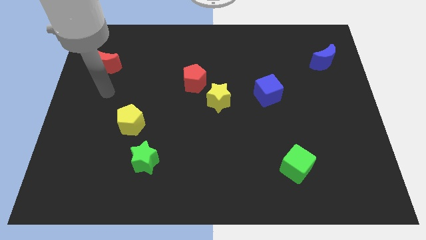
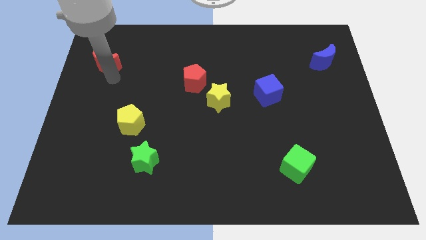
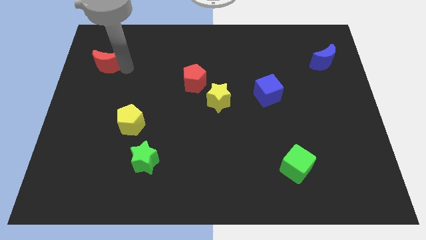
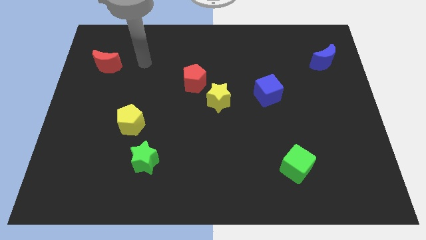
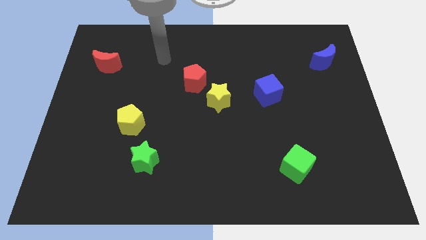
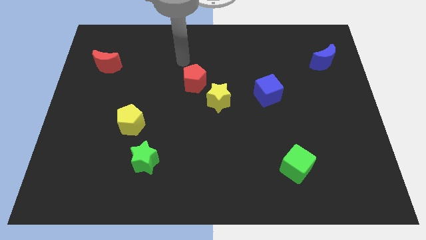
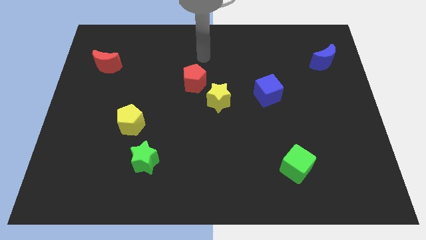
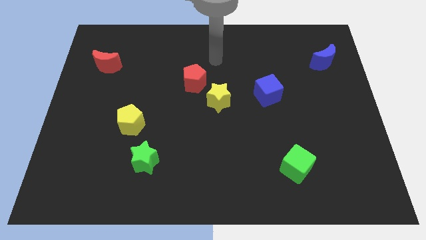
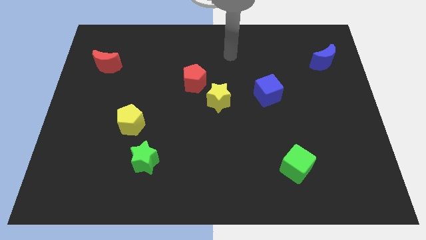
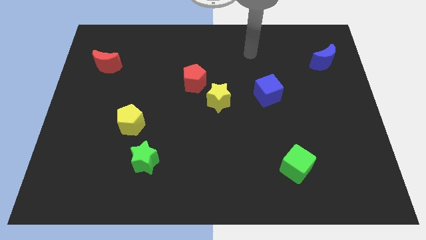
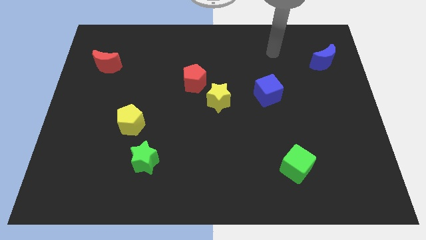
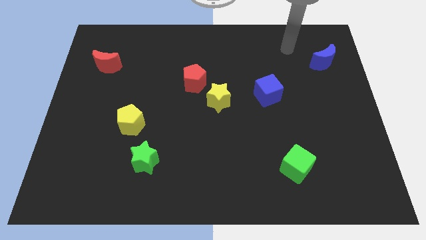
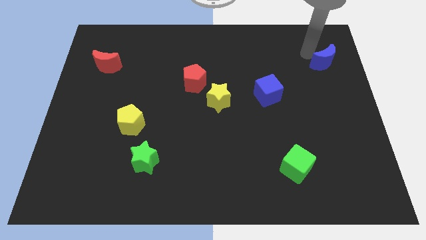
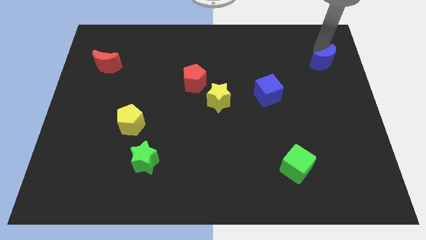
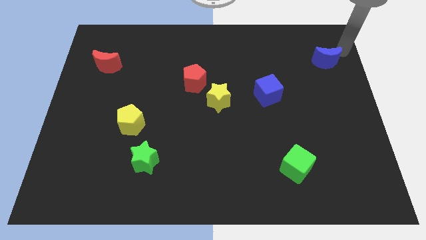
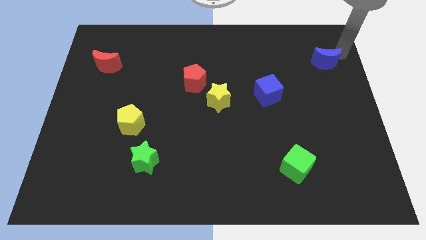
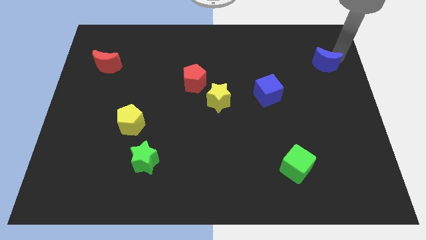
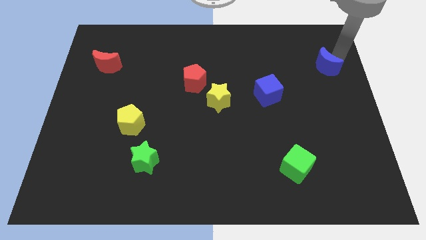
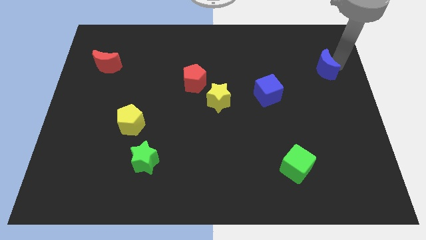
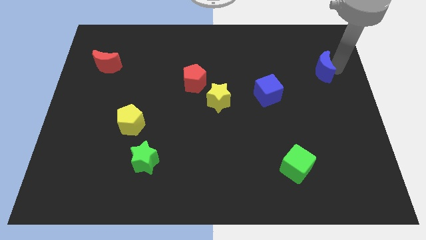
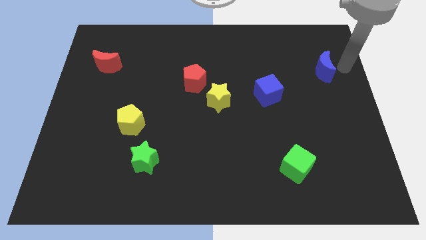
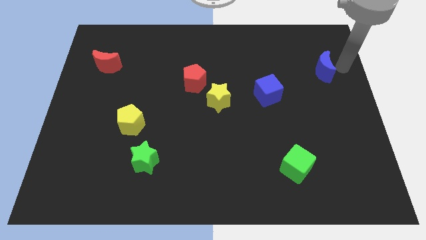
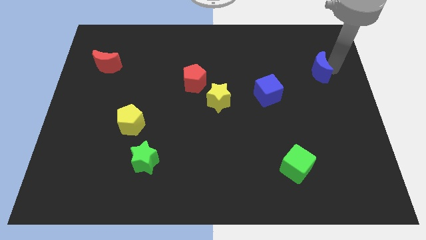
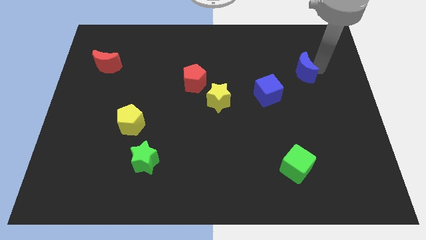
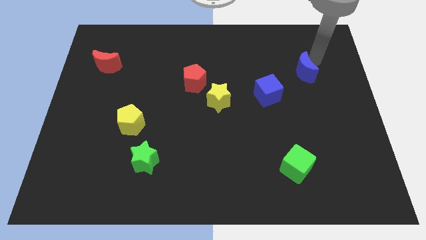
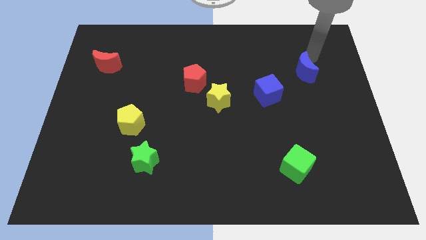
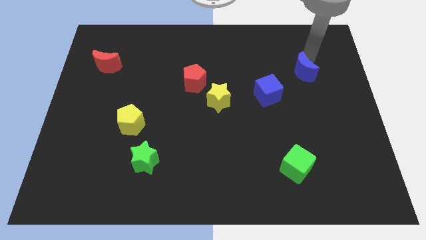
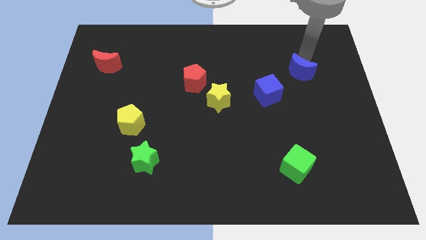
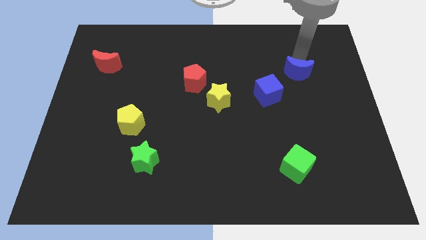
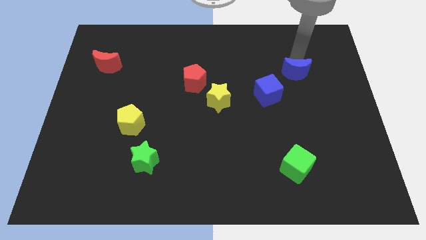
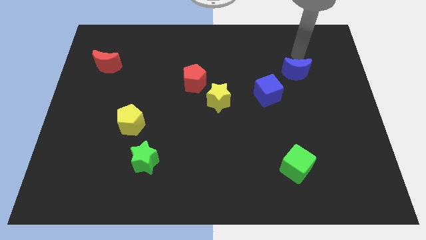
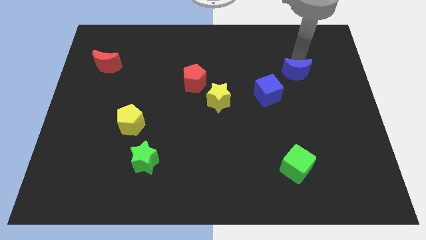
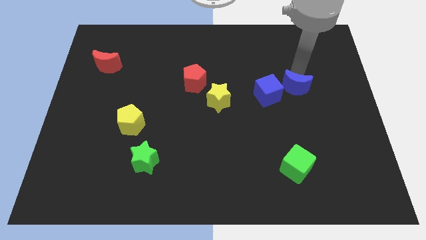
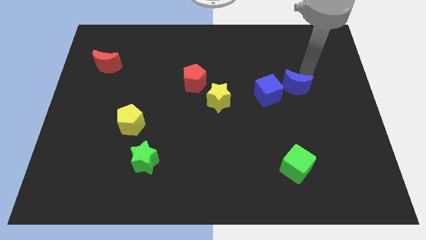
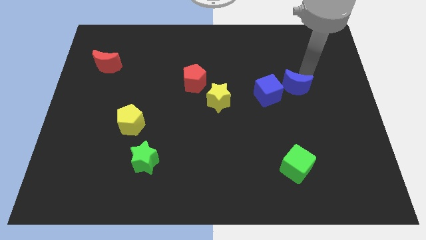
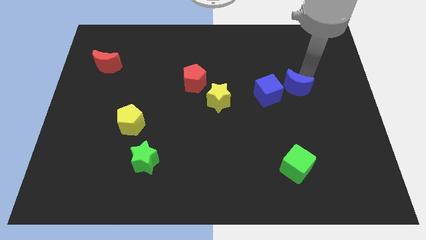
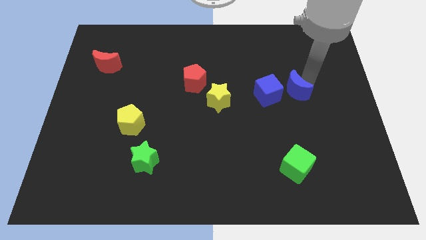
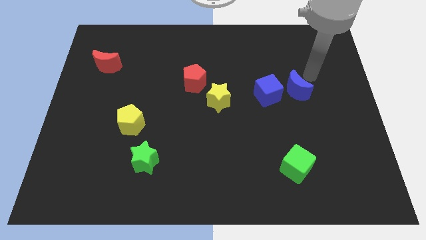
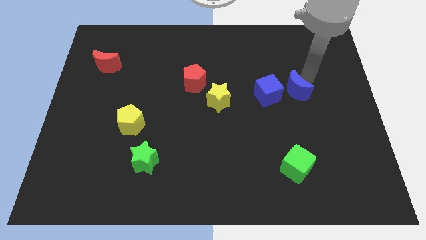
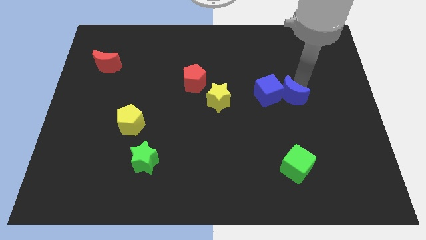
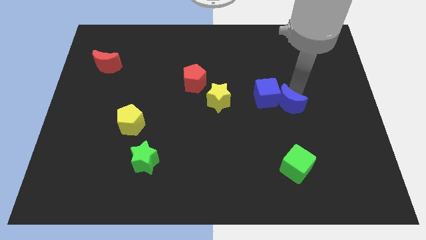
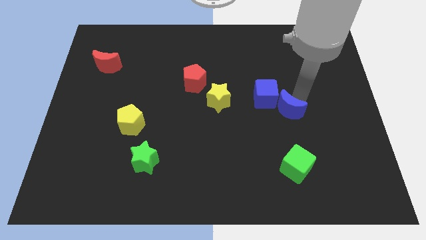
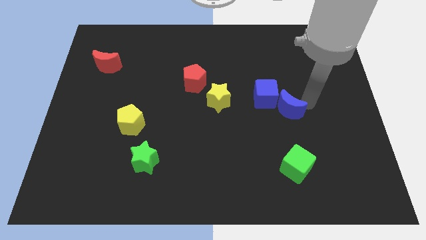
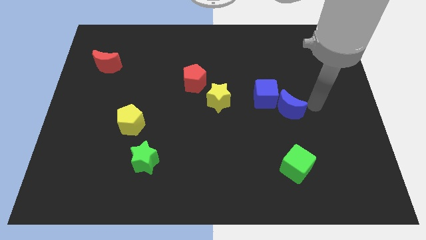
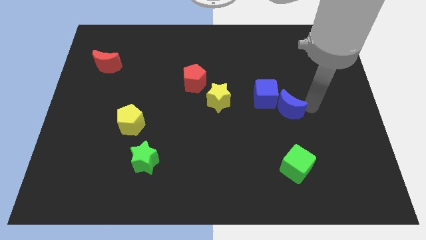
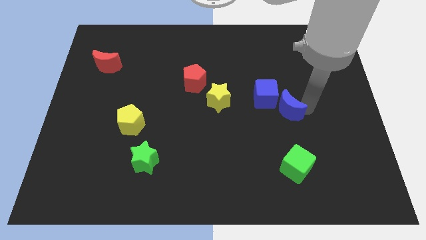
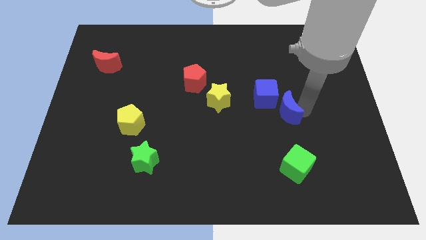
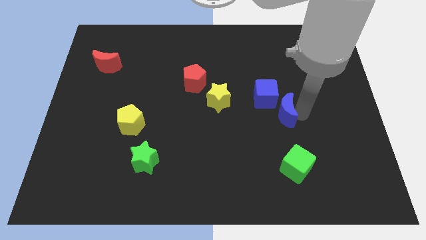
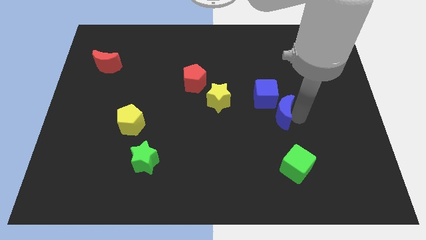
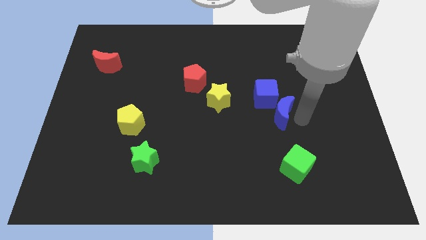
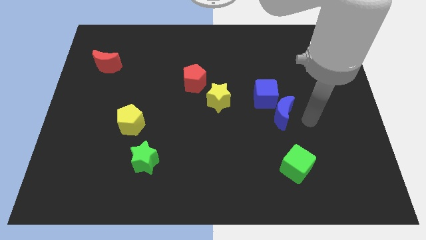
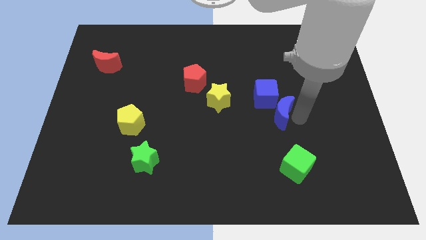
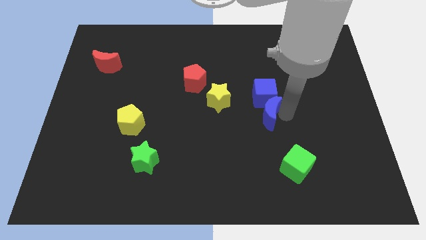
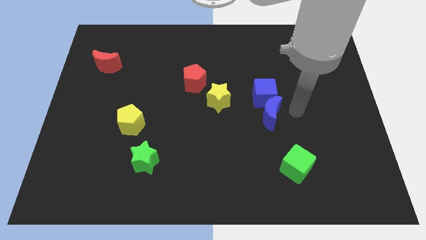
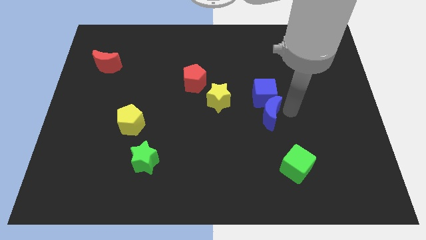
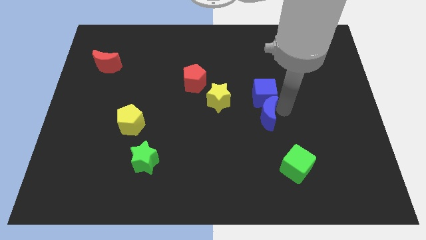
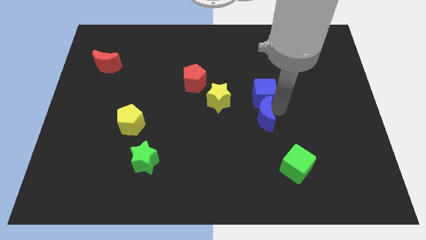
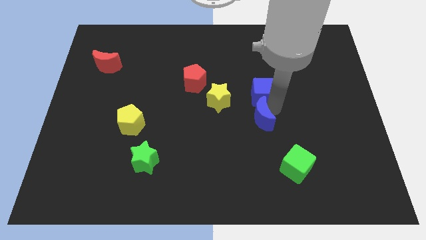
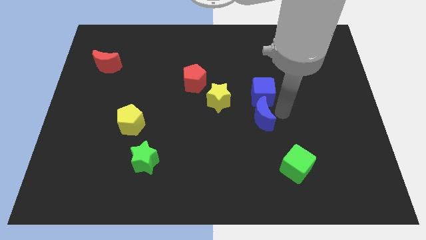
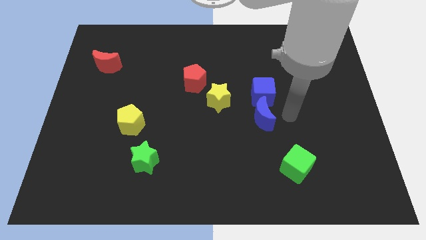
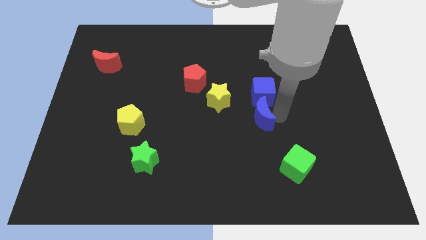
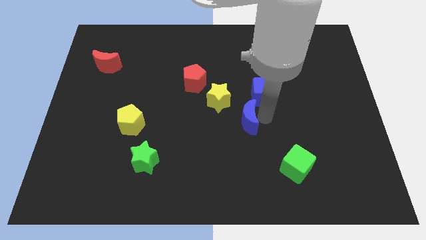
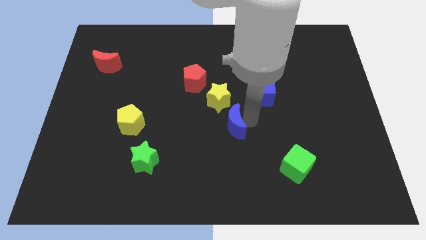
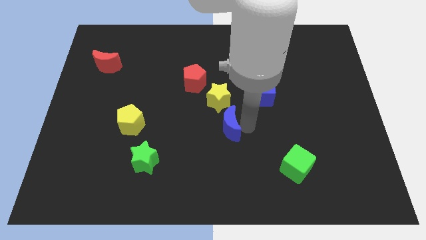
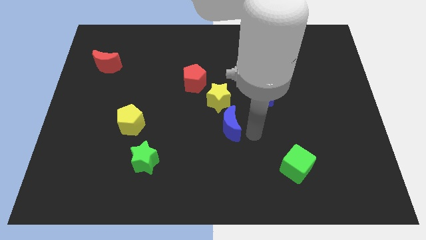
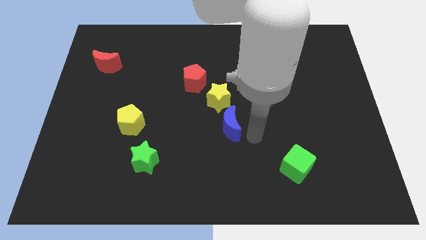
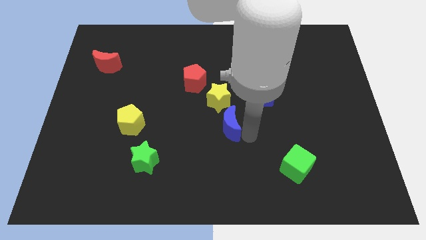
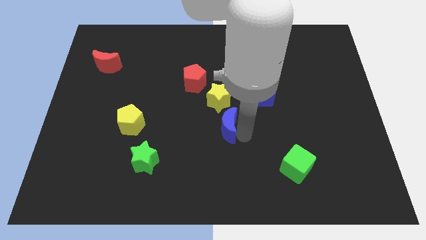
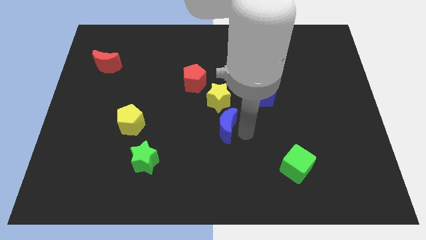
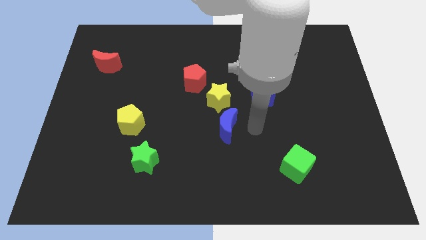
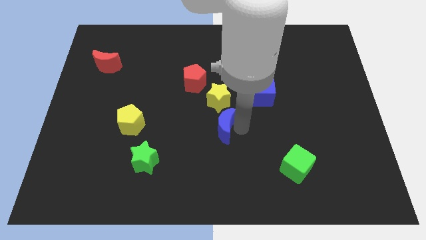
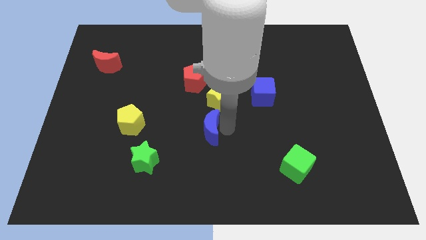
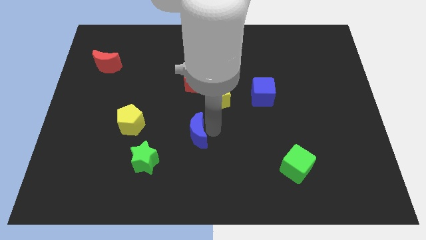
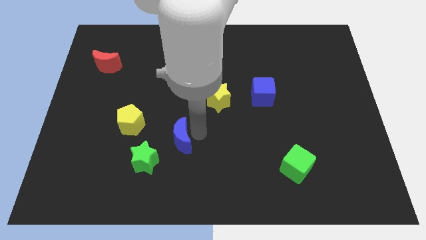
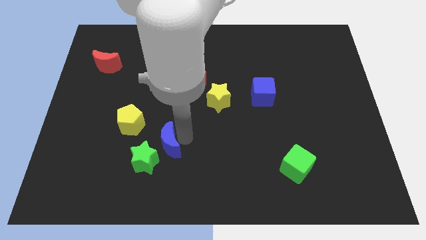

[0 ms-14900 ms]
put the blue moon to the green star

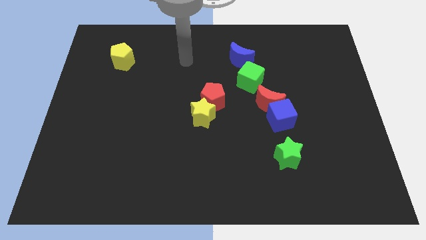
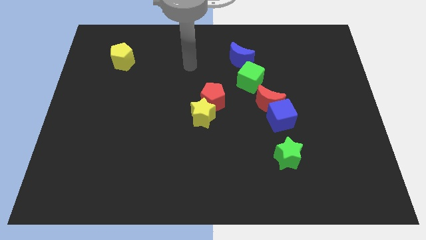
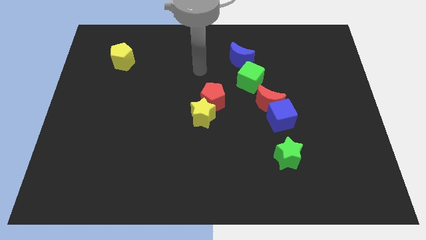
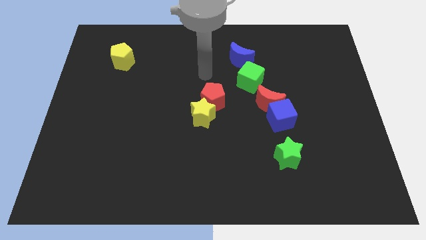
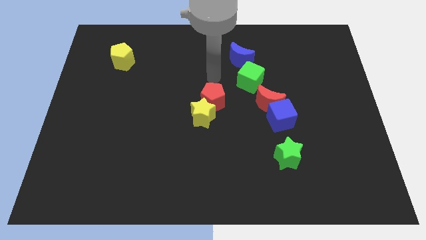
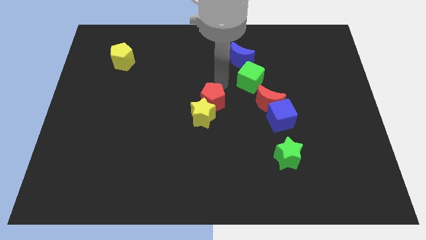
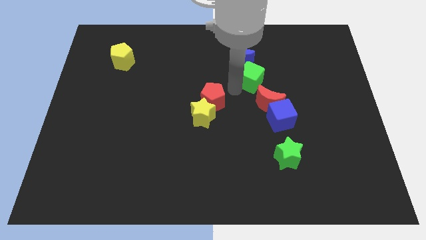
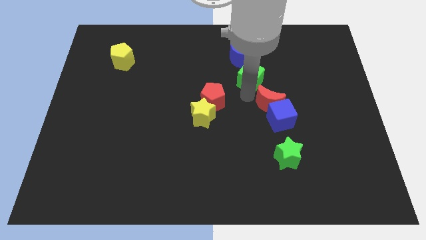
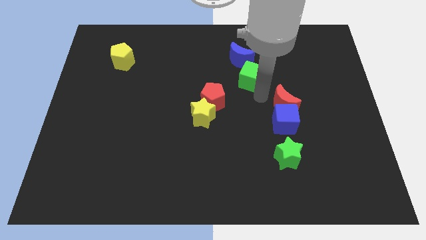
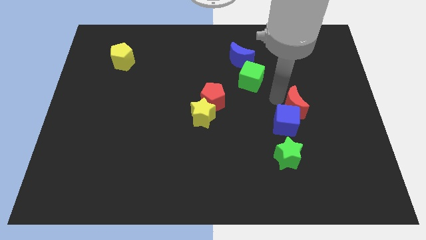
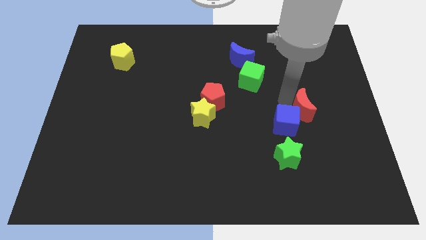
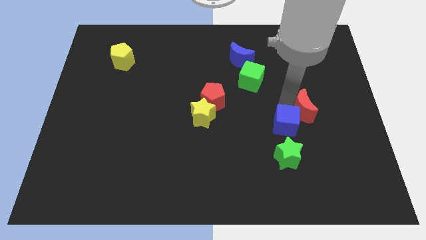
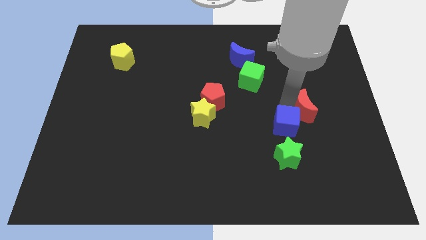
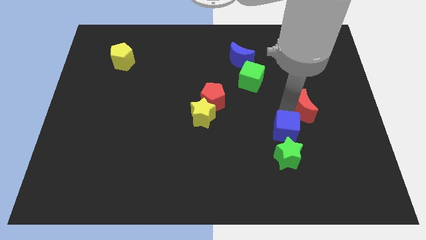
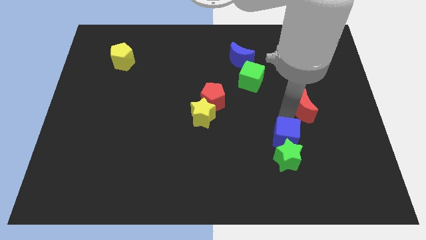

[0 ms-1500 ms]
move the blue cube towards the green star
